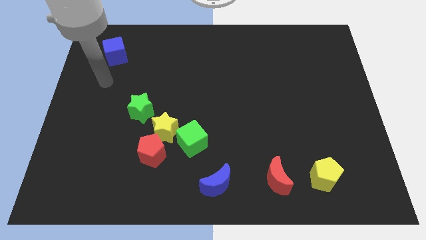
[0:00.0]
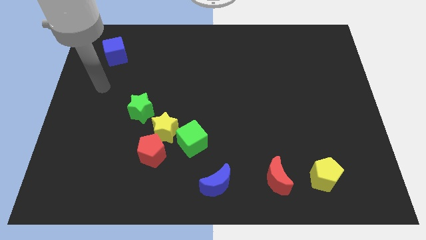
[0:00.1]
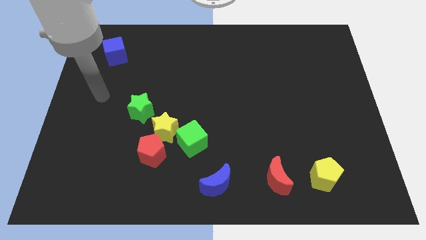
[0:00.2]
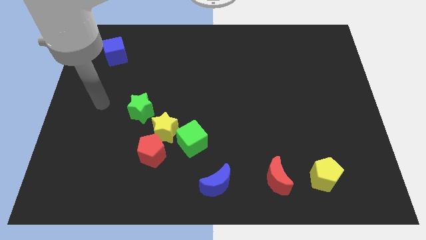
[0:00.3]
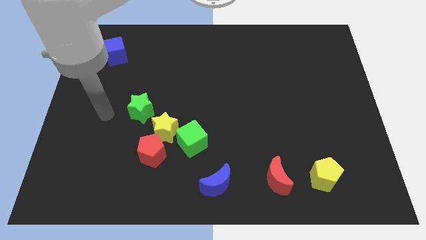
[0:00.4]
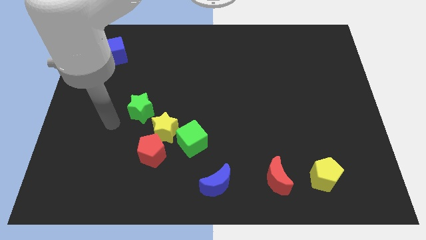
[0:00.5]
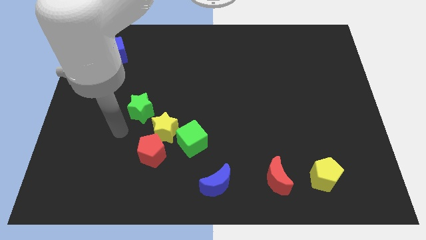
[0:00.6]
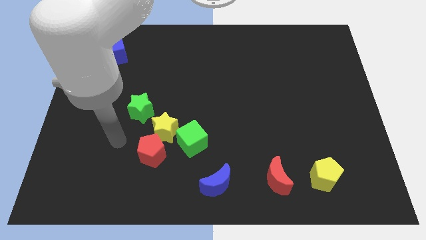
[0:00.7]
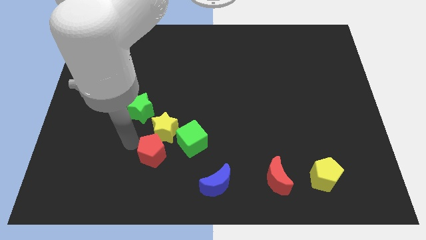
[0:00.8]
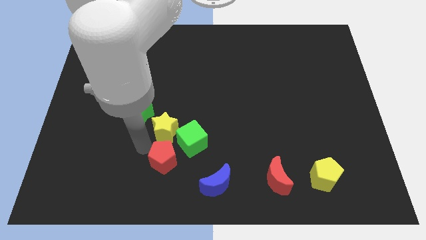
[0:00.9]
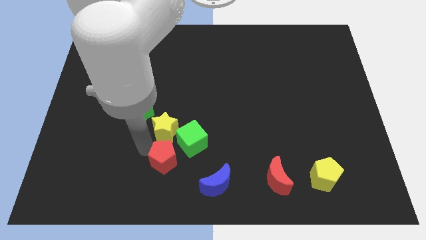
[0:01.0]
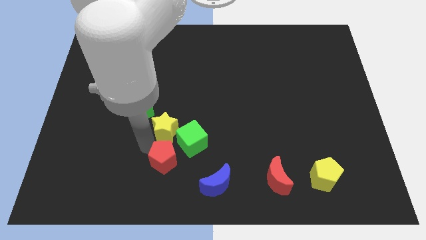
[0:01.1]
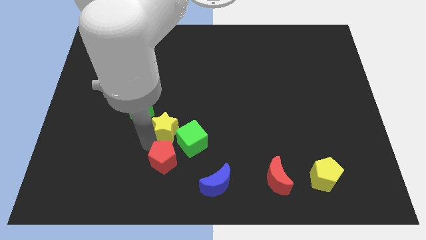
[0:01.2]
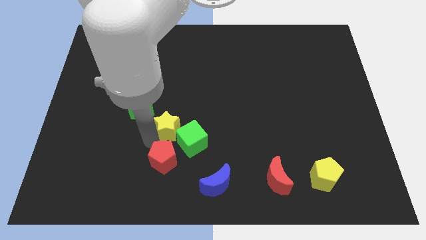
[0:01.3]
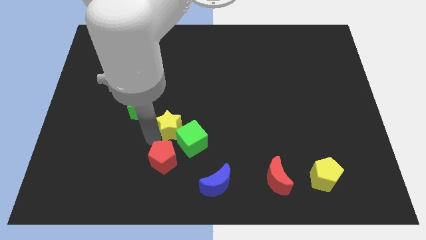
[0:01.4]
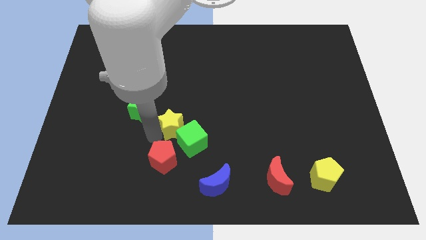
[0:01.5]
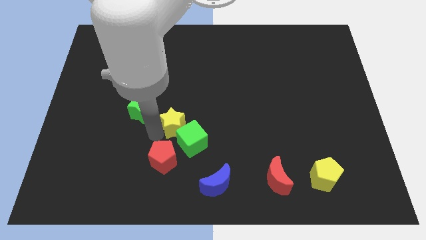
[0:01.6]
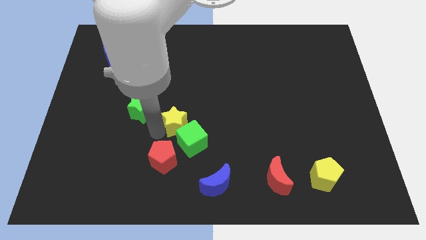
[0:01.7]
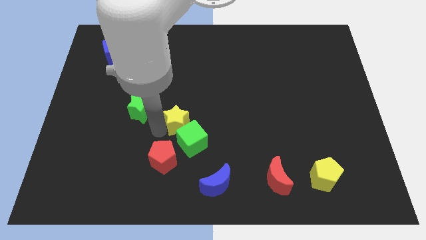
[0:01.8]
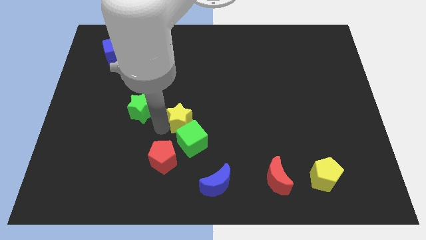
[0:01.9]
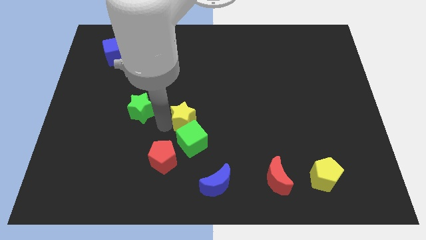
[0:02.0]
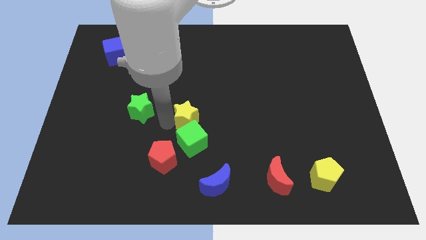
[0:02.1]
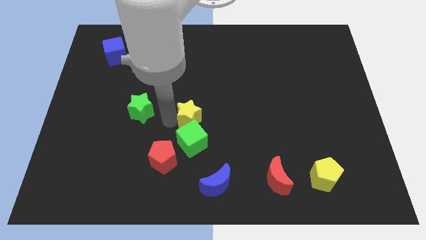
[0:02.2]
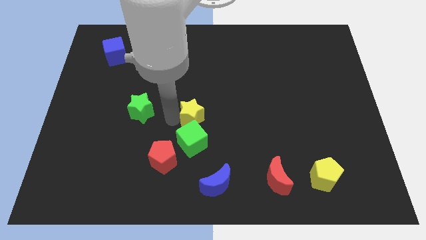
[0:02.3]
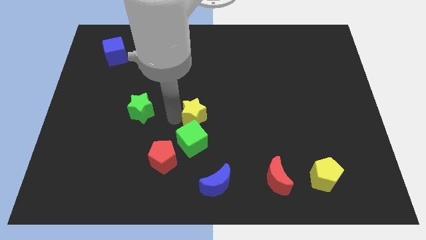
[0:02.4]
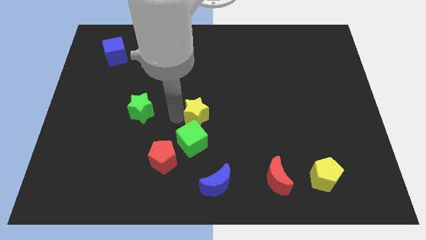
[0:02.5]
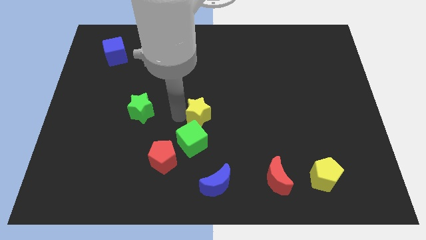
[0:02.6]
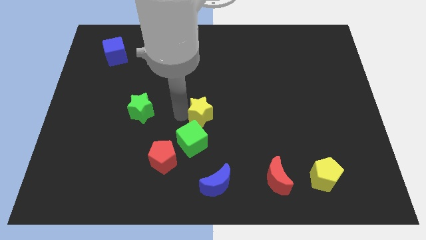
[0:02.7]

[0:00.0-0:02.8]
move the yellow star away from the clump

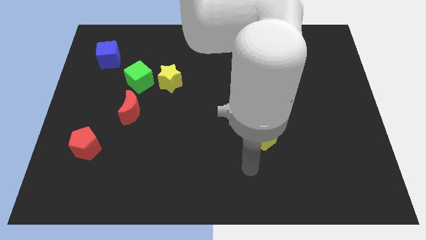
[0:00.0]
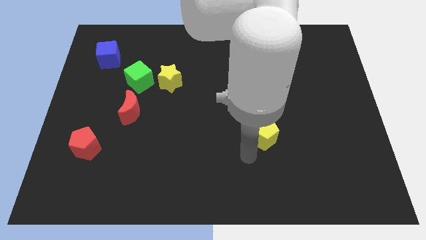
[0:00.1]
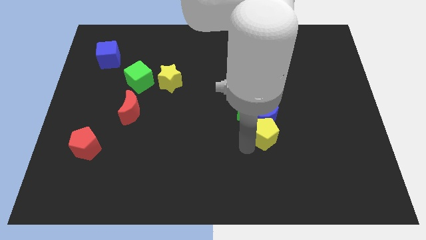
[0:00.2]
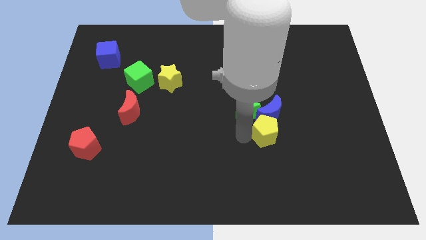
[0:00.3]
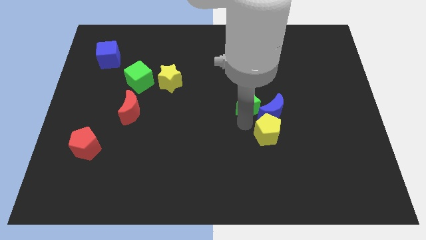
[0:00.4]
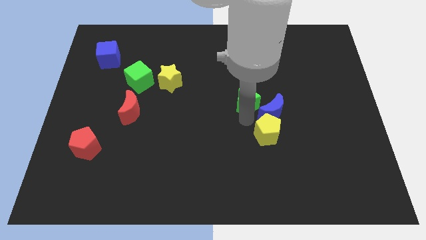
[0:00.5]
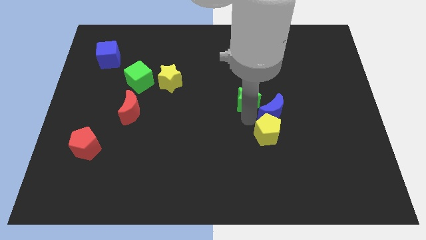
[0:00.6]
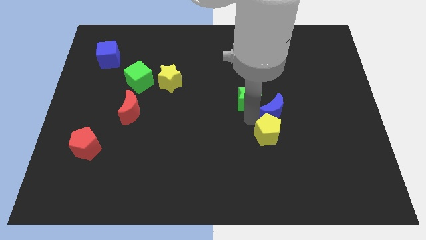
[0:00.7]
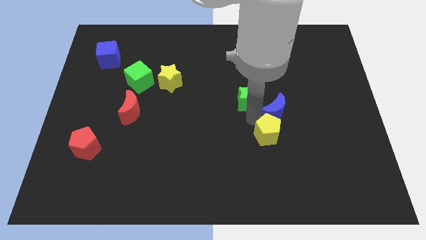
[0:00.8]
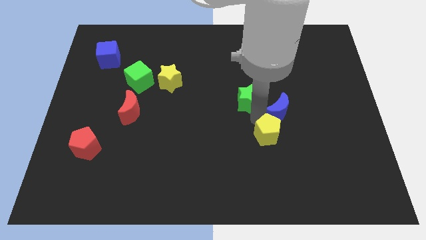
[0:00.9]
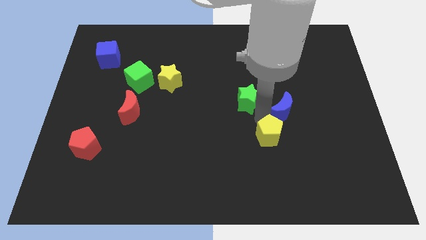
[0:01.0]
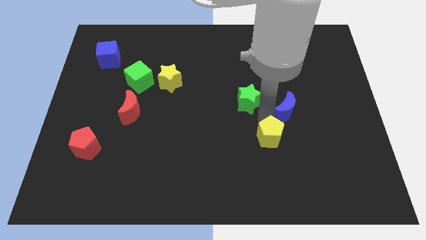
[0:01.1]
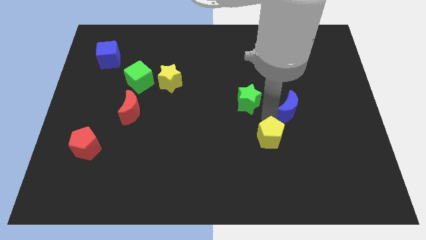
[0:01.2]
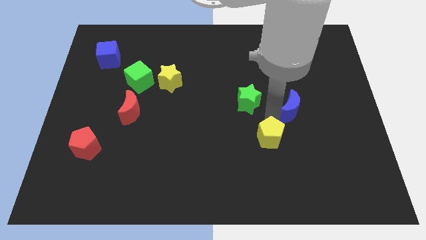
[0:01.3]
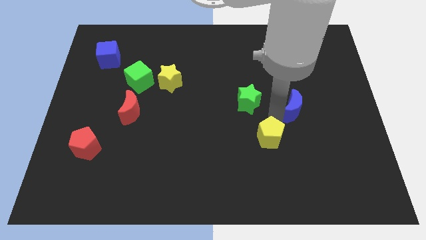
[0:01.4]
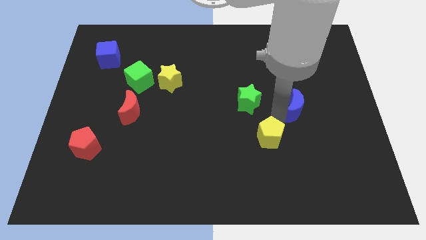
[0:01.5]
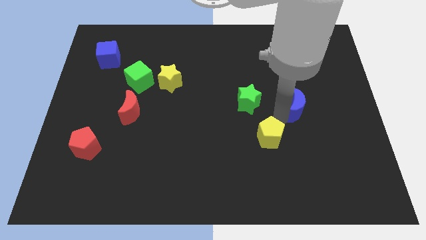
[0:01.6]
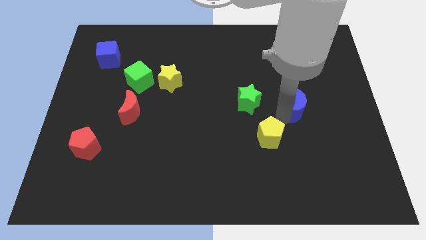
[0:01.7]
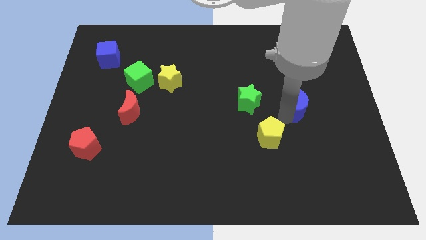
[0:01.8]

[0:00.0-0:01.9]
move the blue moon away from the green star and yellow pentagon

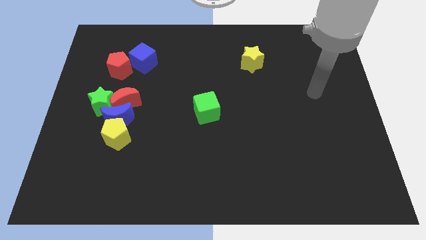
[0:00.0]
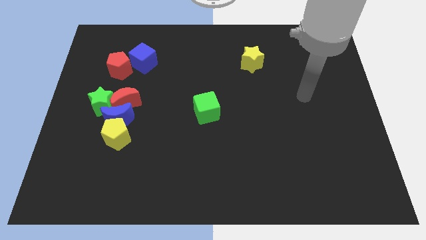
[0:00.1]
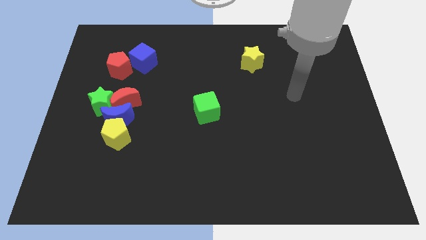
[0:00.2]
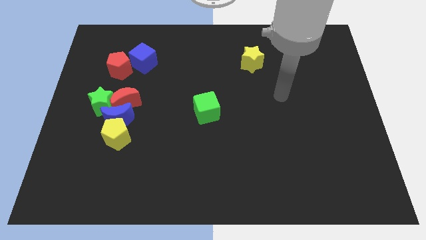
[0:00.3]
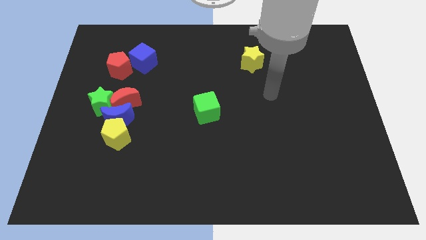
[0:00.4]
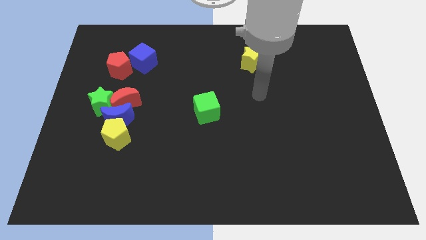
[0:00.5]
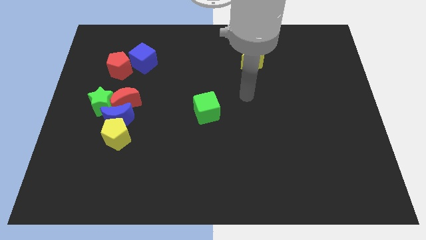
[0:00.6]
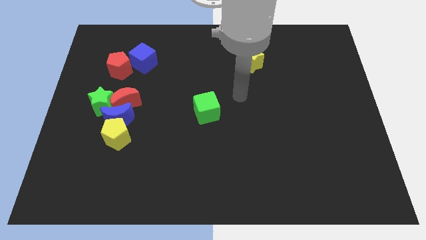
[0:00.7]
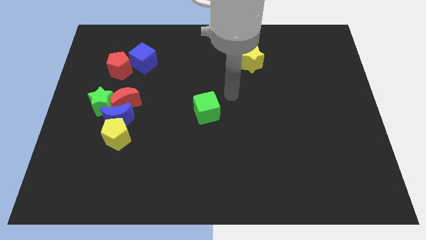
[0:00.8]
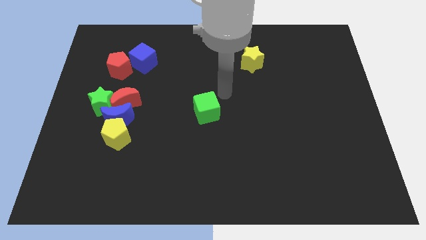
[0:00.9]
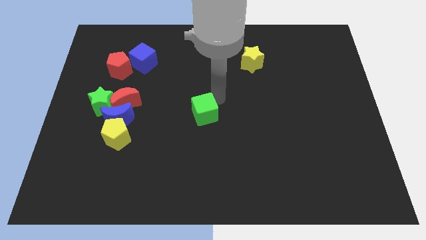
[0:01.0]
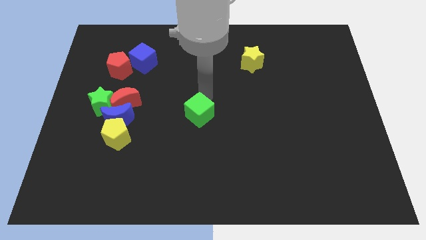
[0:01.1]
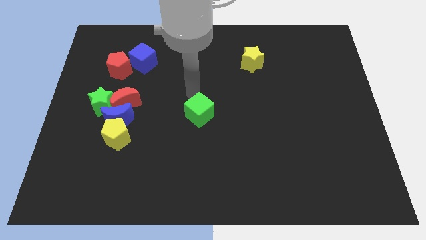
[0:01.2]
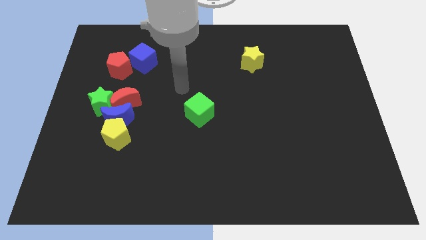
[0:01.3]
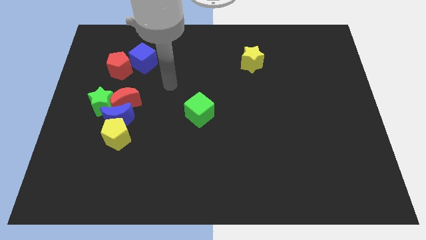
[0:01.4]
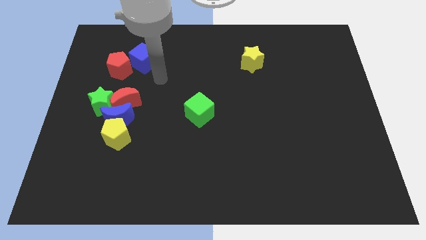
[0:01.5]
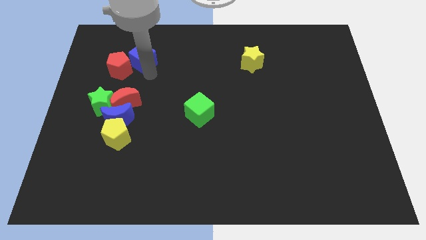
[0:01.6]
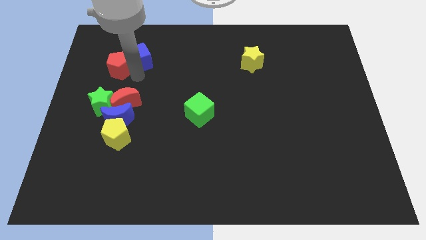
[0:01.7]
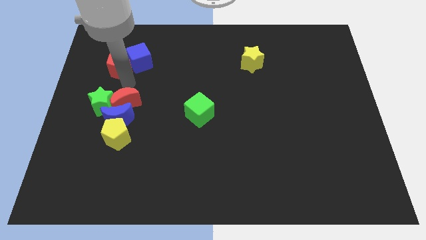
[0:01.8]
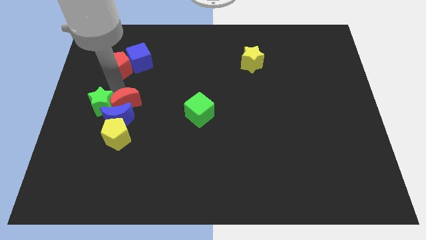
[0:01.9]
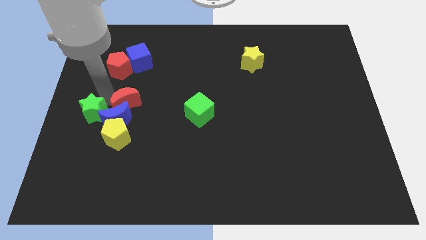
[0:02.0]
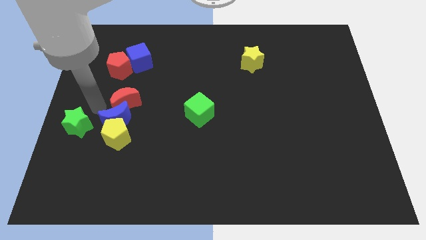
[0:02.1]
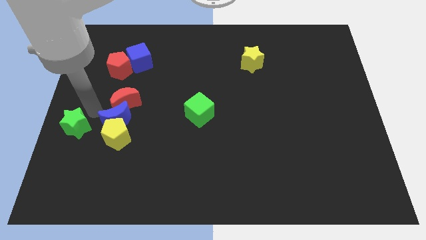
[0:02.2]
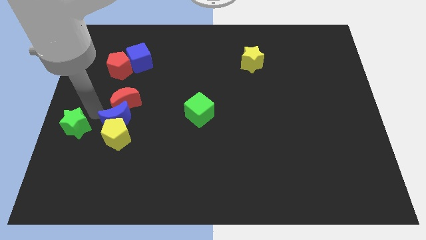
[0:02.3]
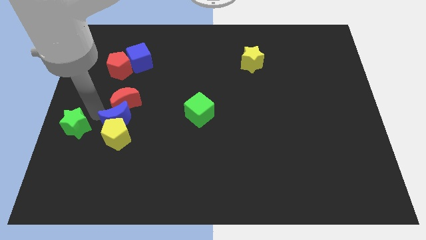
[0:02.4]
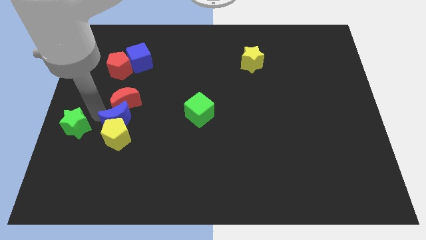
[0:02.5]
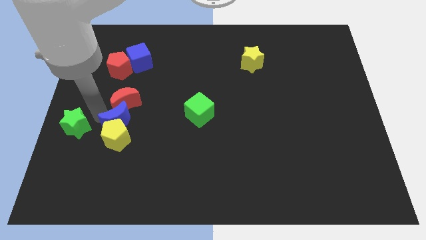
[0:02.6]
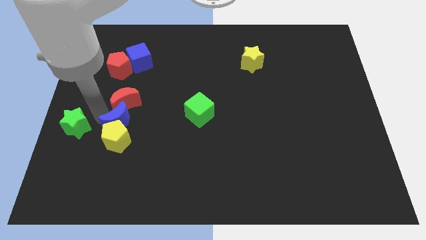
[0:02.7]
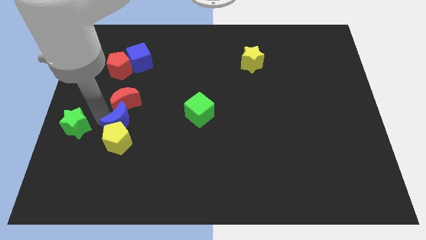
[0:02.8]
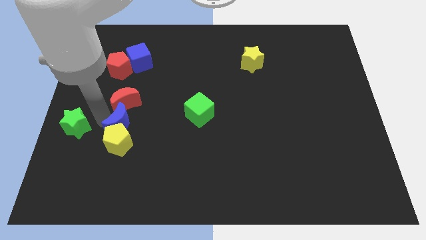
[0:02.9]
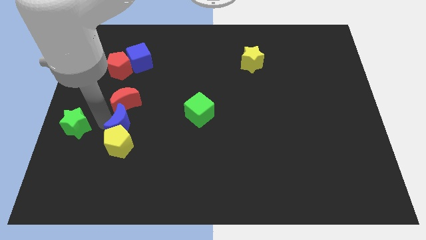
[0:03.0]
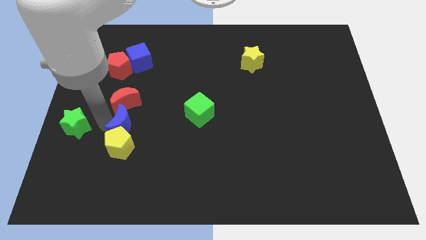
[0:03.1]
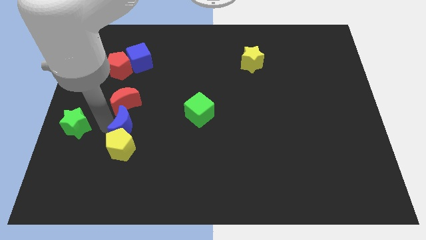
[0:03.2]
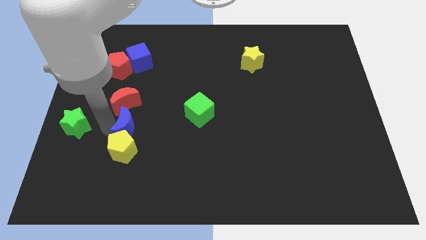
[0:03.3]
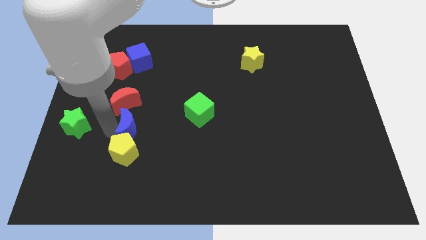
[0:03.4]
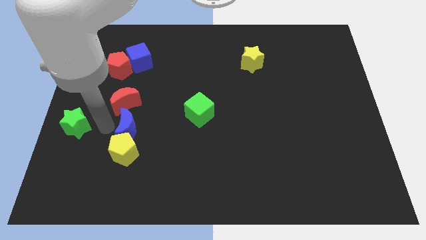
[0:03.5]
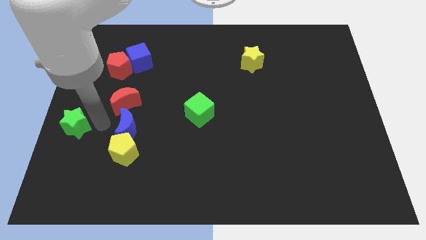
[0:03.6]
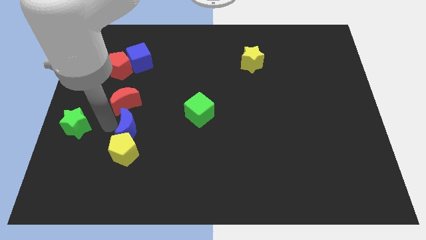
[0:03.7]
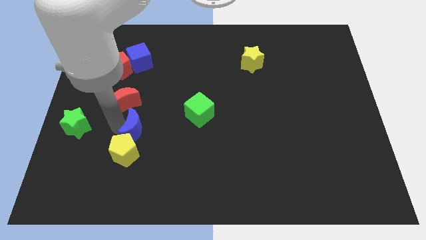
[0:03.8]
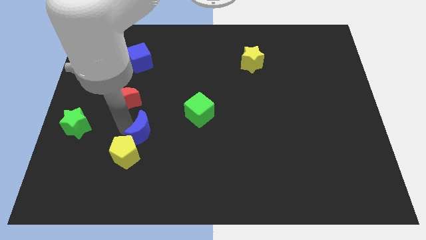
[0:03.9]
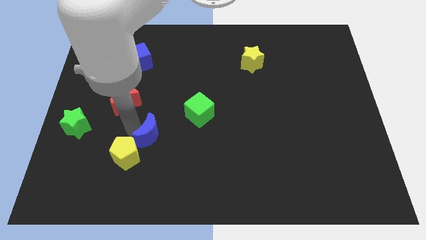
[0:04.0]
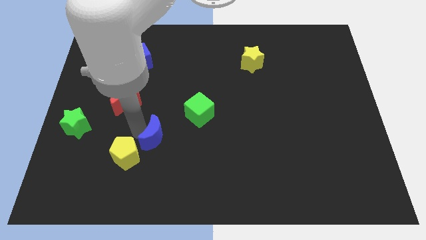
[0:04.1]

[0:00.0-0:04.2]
pull the blue moon apart from the yellow pentagon, red moon, and green star

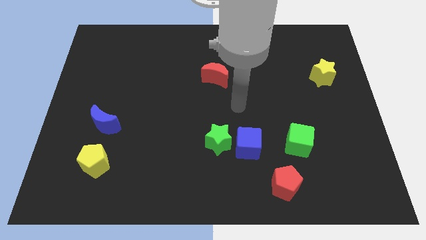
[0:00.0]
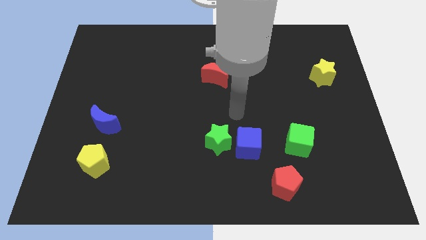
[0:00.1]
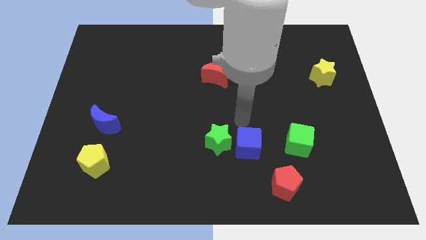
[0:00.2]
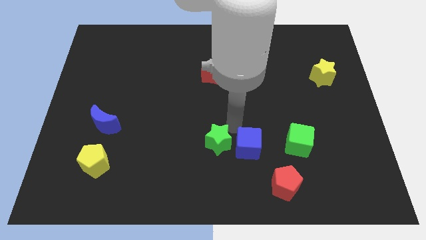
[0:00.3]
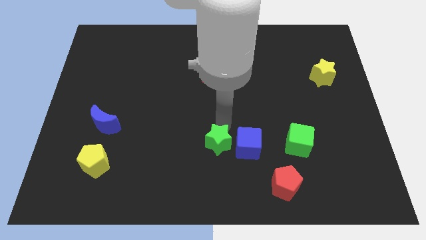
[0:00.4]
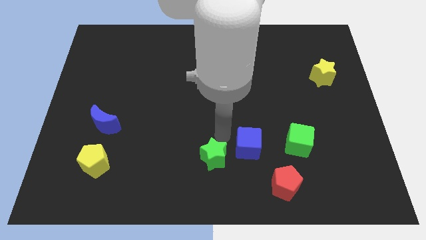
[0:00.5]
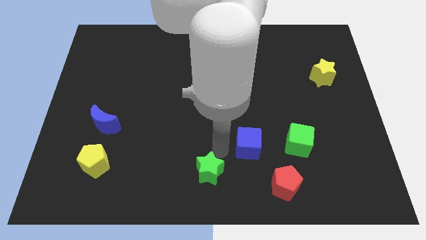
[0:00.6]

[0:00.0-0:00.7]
pull the blue cube apart from the green star

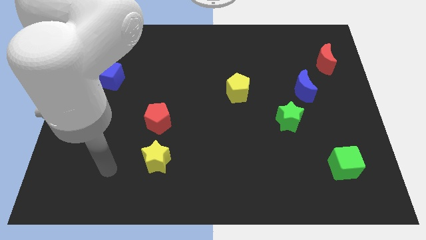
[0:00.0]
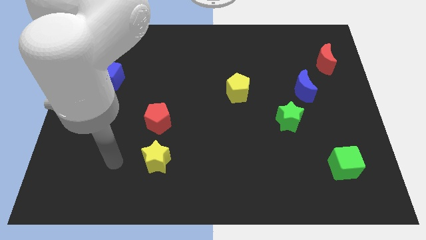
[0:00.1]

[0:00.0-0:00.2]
move the blue moon away from the green star
